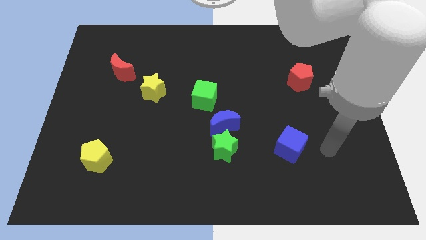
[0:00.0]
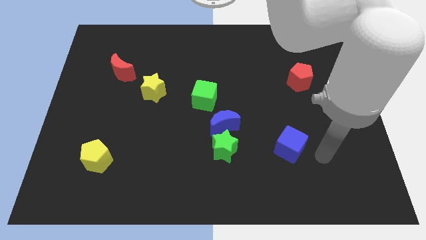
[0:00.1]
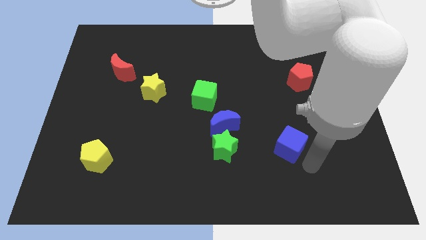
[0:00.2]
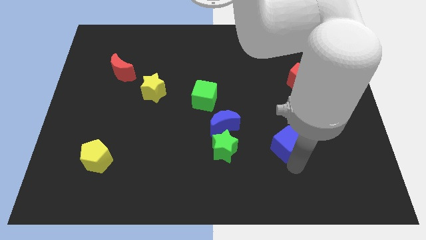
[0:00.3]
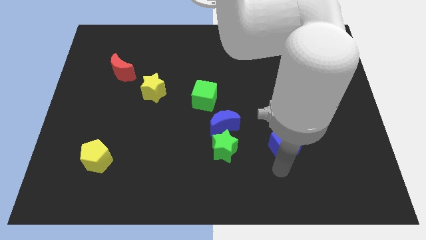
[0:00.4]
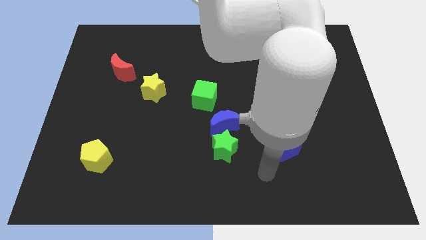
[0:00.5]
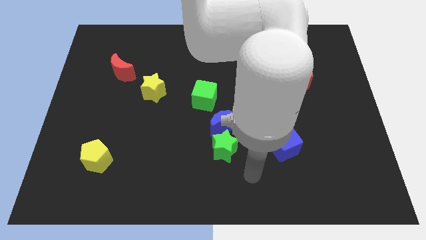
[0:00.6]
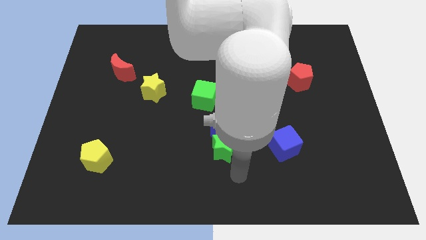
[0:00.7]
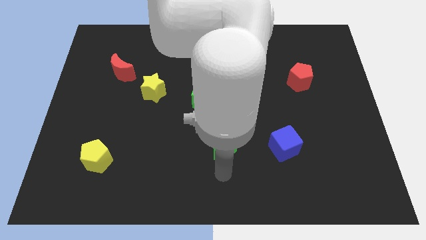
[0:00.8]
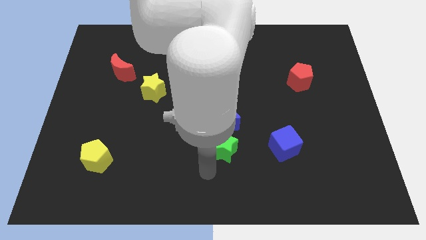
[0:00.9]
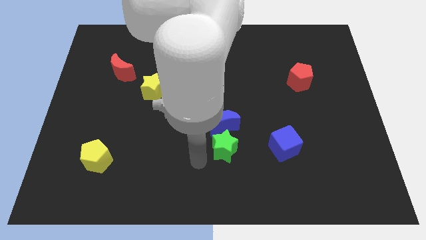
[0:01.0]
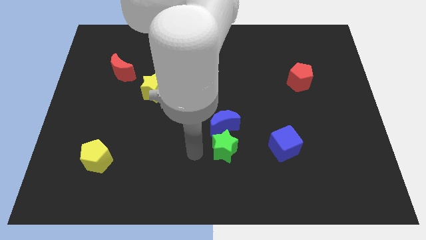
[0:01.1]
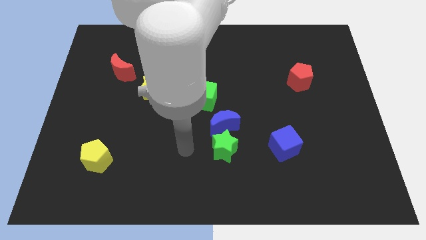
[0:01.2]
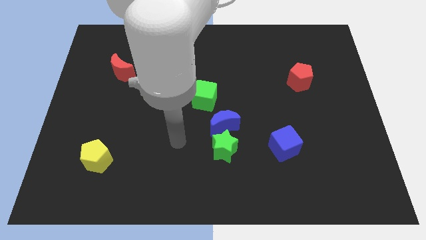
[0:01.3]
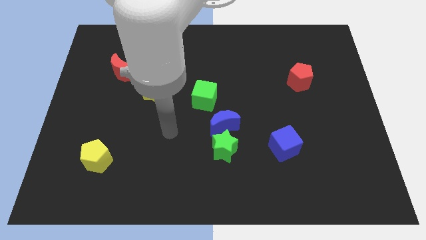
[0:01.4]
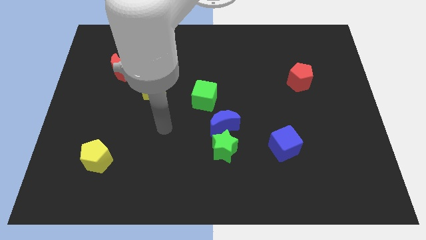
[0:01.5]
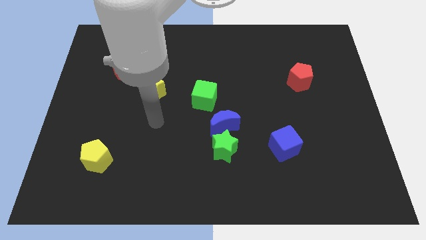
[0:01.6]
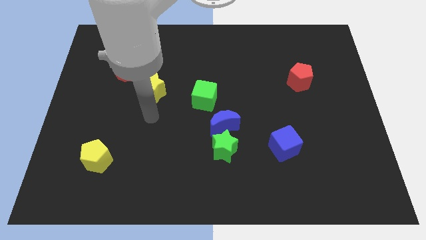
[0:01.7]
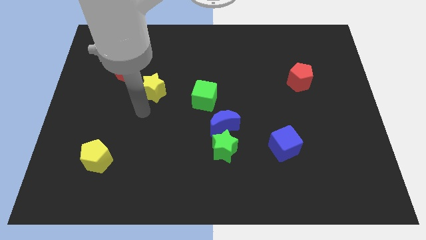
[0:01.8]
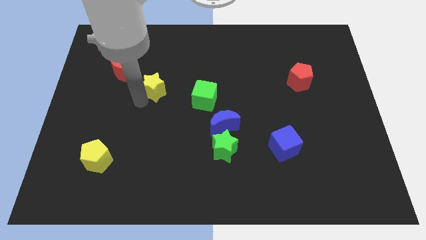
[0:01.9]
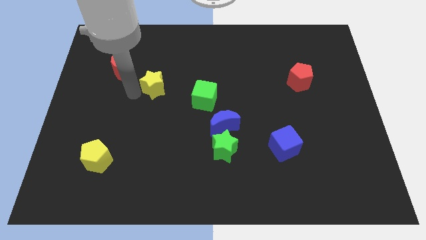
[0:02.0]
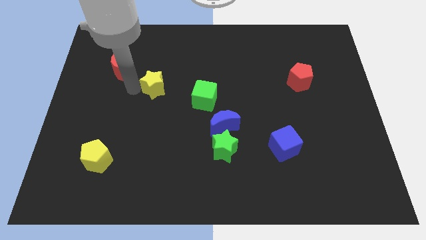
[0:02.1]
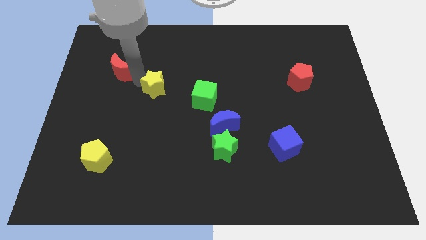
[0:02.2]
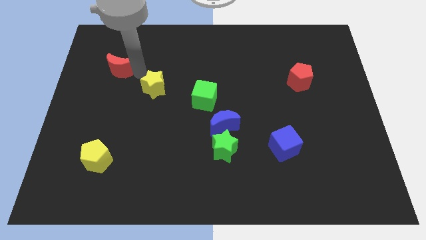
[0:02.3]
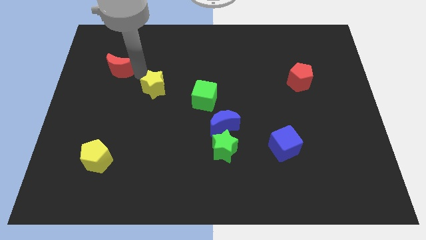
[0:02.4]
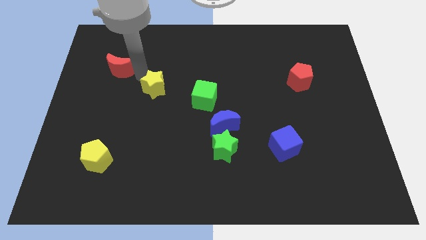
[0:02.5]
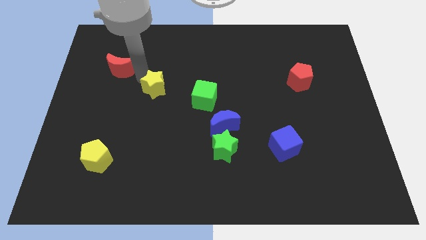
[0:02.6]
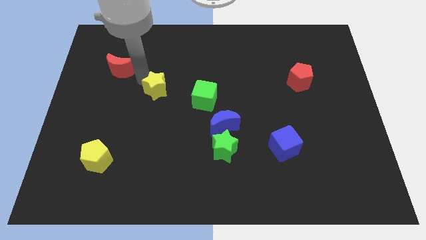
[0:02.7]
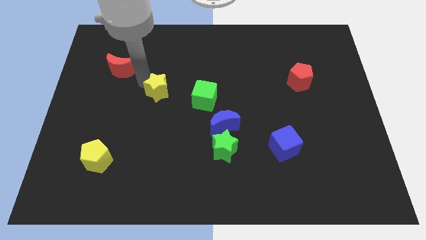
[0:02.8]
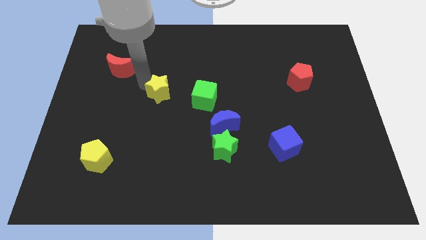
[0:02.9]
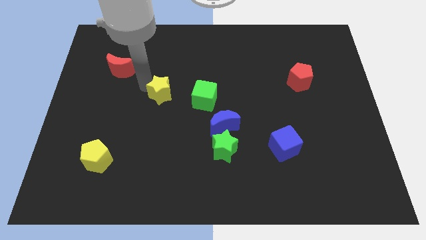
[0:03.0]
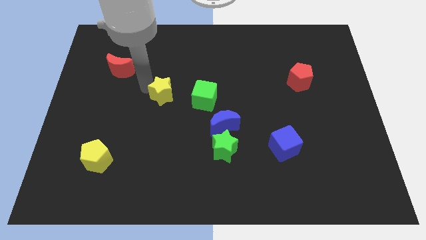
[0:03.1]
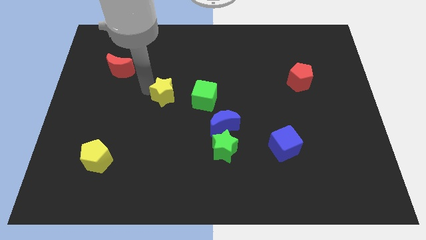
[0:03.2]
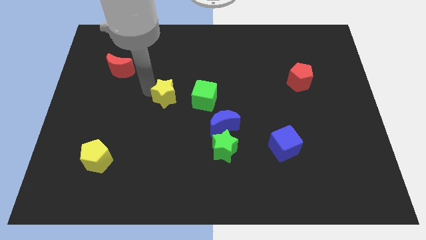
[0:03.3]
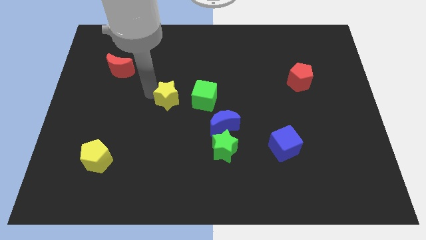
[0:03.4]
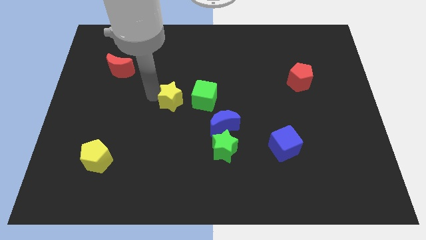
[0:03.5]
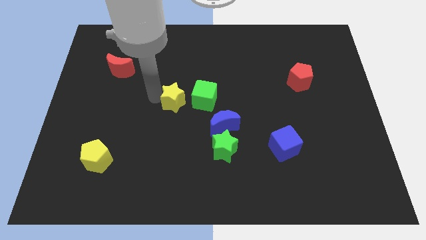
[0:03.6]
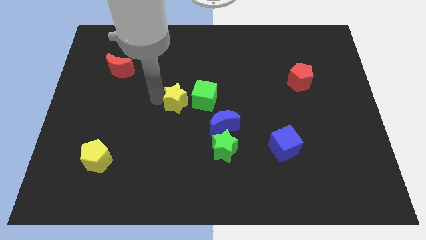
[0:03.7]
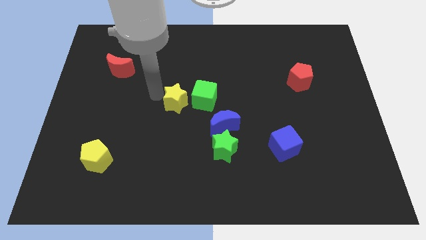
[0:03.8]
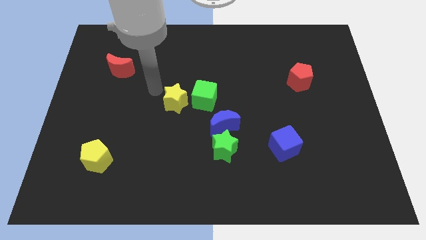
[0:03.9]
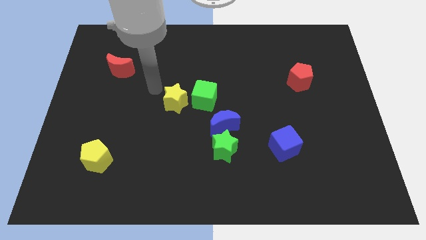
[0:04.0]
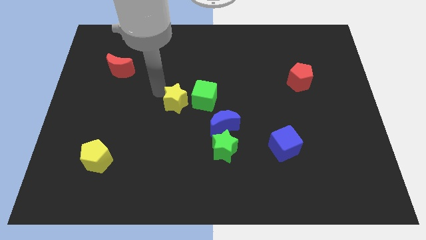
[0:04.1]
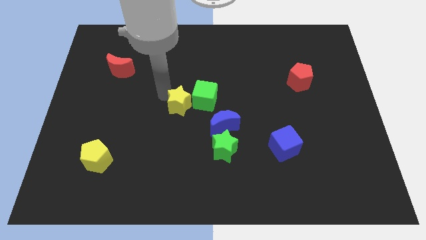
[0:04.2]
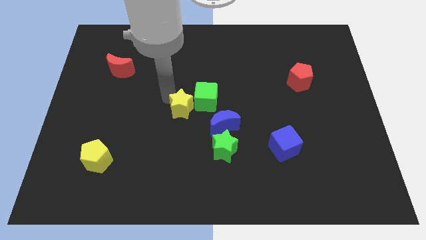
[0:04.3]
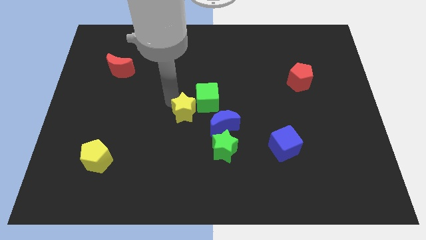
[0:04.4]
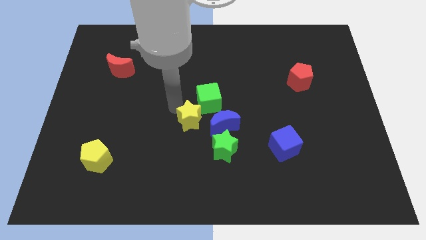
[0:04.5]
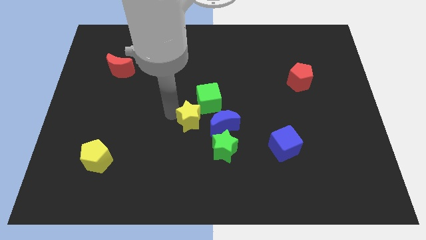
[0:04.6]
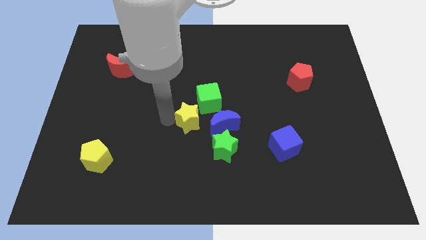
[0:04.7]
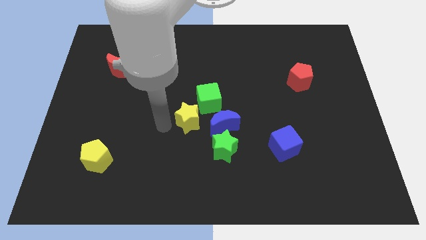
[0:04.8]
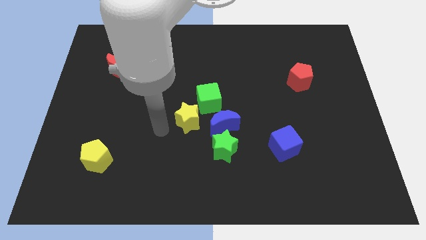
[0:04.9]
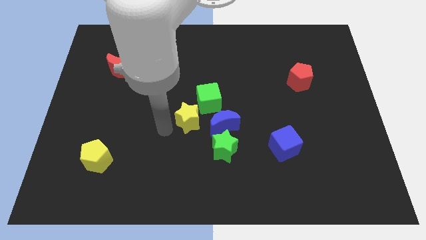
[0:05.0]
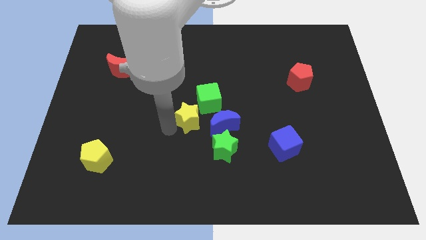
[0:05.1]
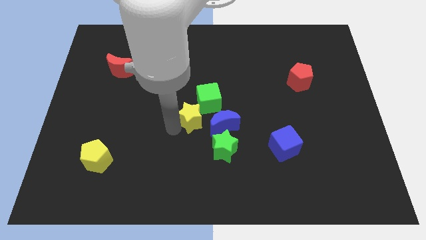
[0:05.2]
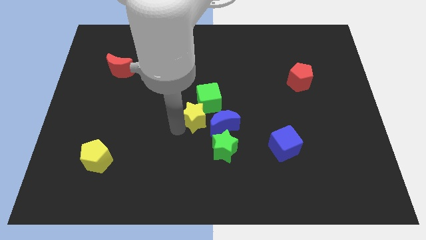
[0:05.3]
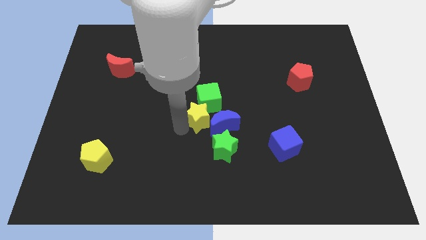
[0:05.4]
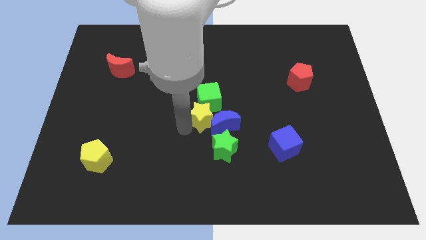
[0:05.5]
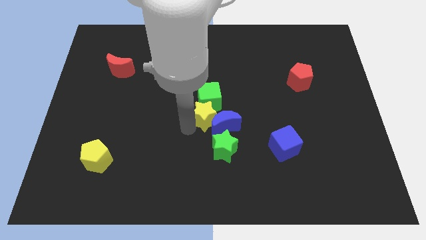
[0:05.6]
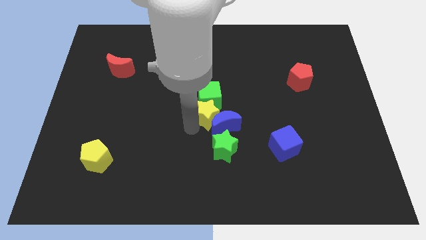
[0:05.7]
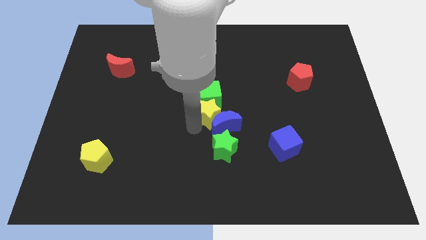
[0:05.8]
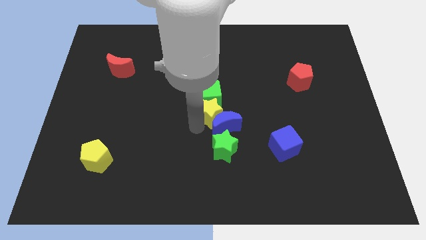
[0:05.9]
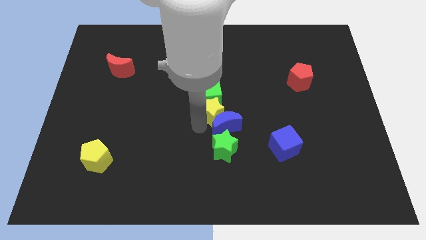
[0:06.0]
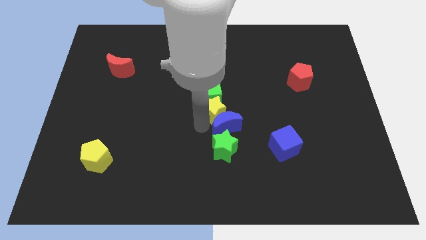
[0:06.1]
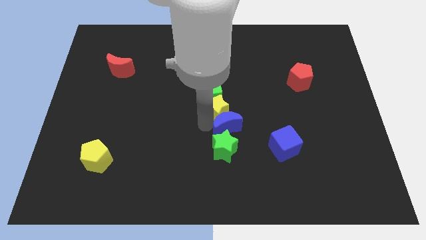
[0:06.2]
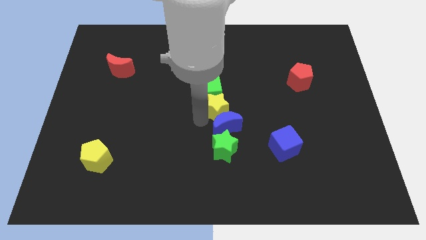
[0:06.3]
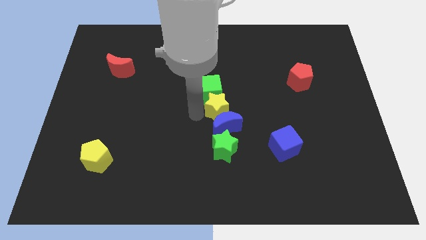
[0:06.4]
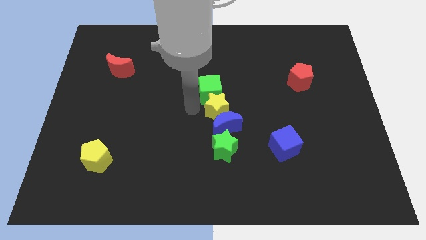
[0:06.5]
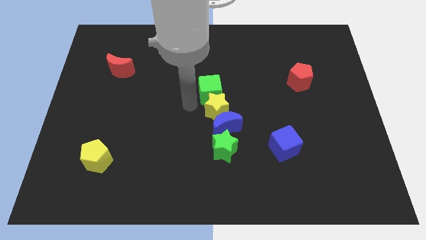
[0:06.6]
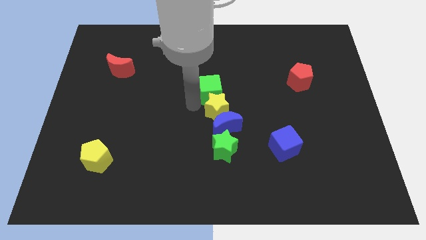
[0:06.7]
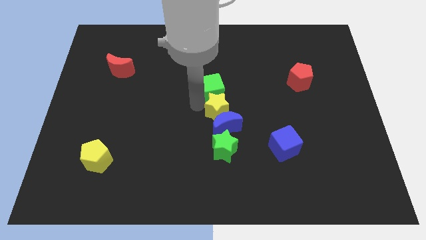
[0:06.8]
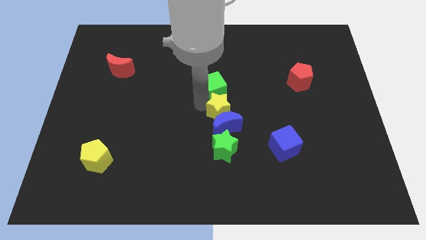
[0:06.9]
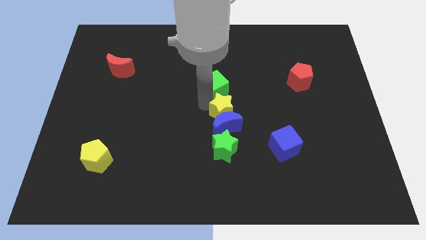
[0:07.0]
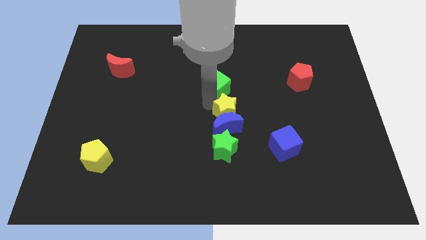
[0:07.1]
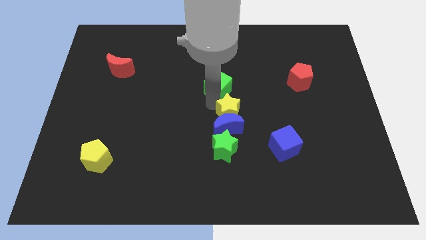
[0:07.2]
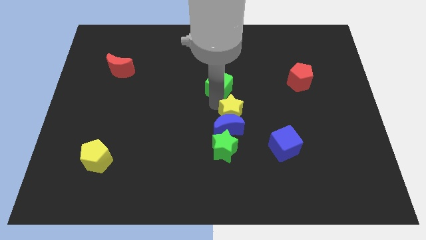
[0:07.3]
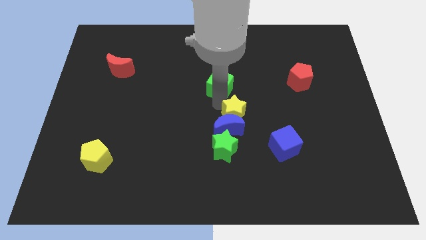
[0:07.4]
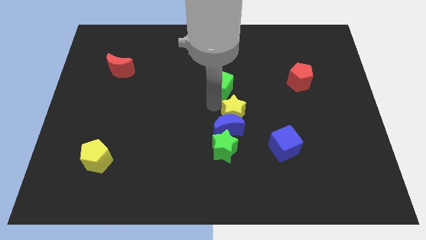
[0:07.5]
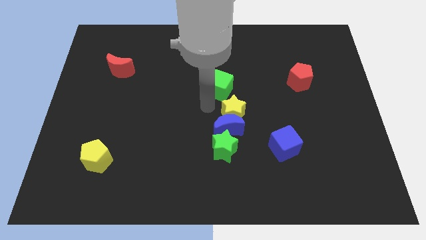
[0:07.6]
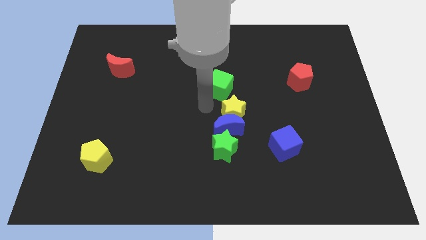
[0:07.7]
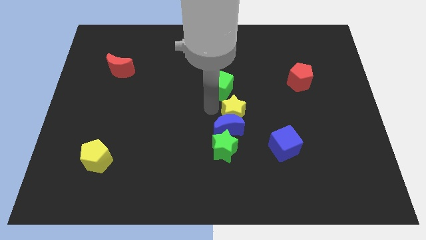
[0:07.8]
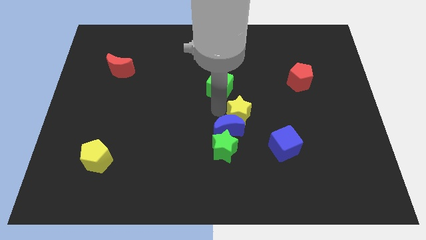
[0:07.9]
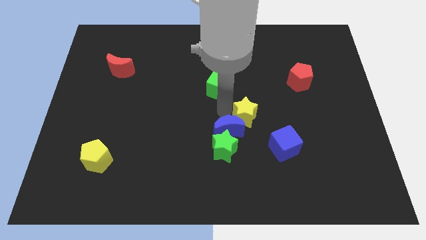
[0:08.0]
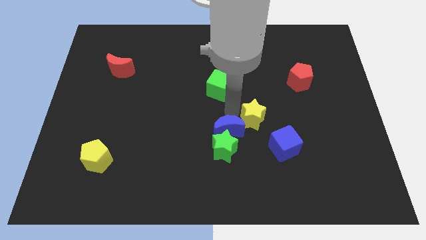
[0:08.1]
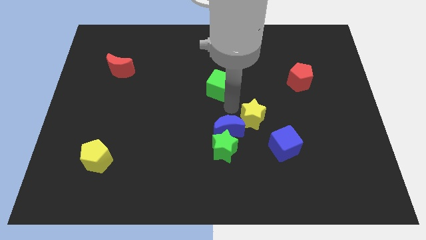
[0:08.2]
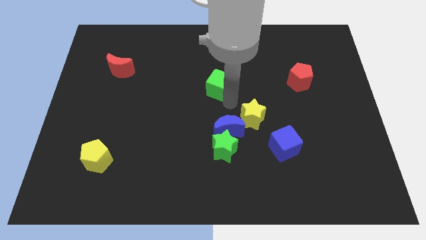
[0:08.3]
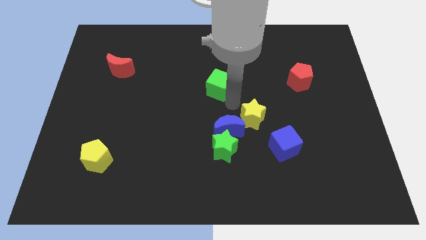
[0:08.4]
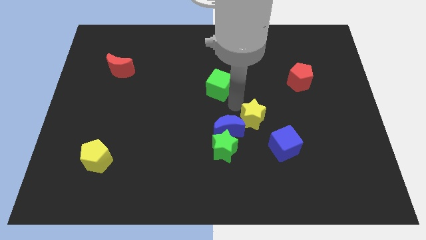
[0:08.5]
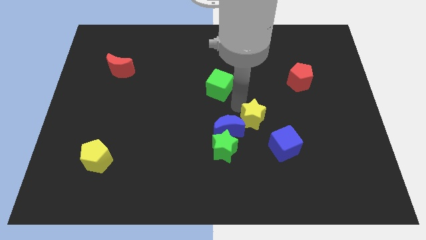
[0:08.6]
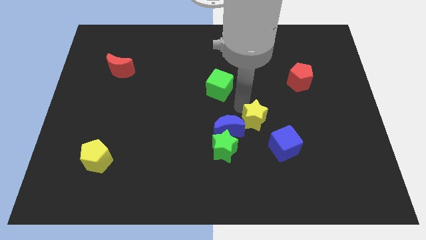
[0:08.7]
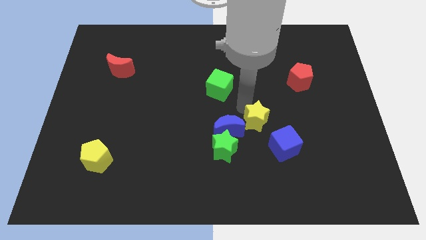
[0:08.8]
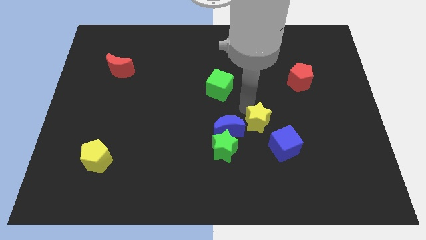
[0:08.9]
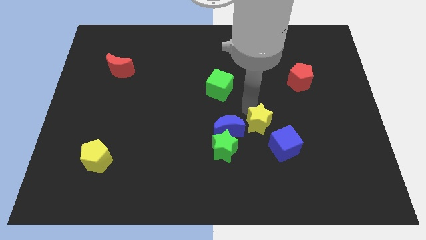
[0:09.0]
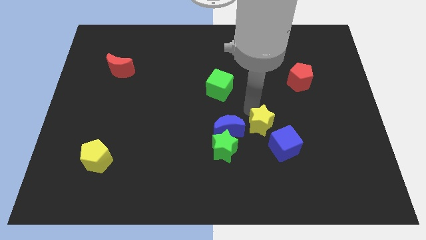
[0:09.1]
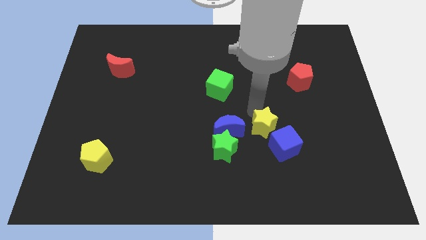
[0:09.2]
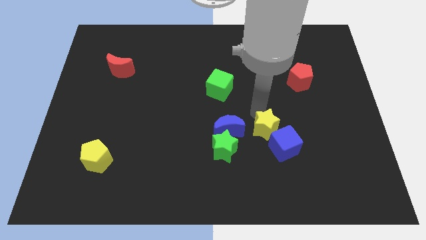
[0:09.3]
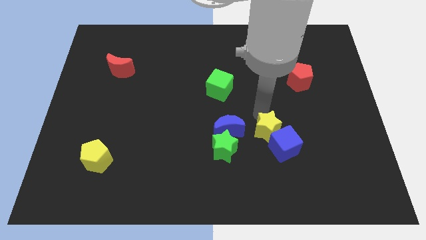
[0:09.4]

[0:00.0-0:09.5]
move the yellow star towards the blue cube
